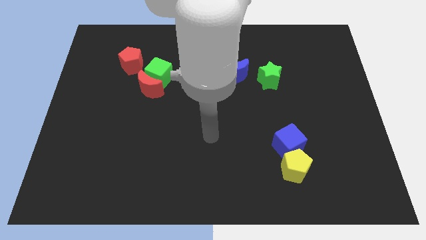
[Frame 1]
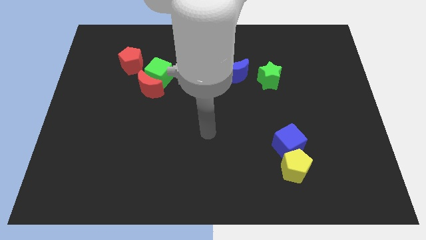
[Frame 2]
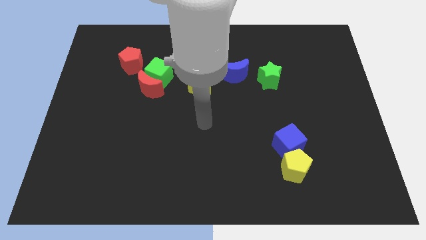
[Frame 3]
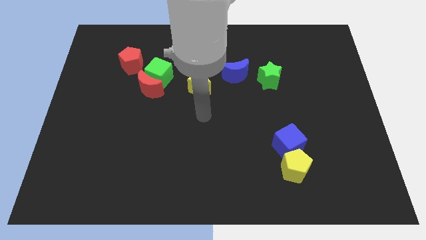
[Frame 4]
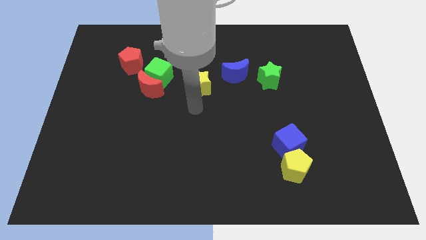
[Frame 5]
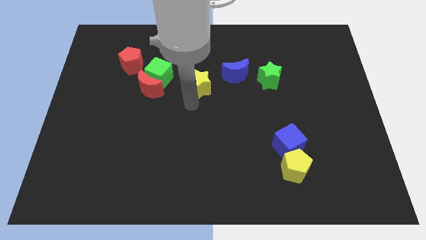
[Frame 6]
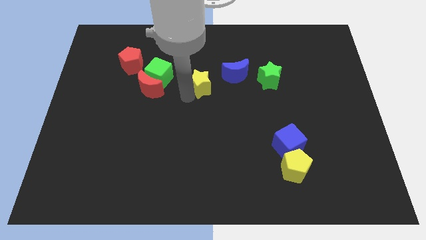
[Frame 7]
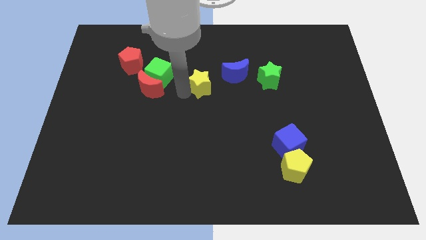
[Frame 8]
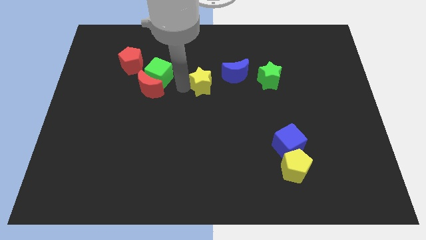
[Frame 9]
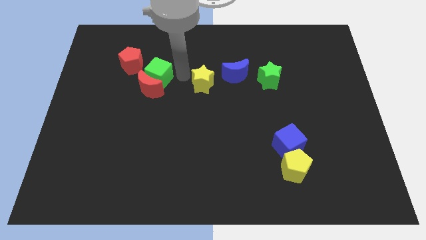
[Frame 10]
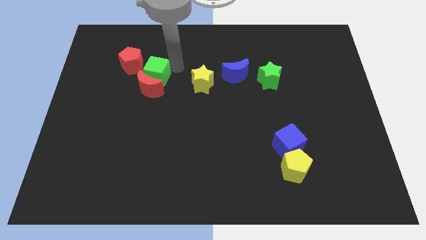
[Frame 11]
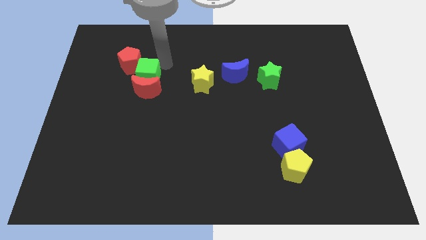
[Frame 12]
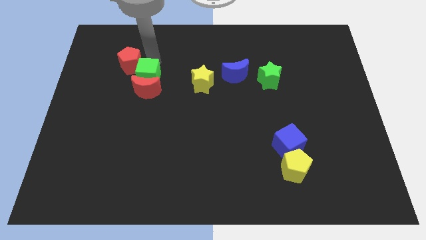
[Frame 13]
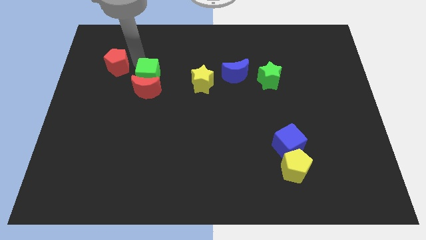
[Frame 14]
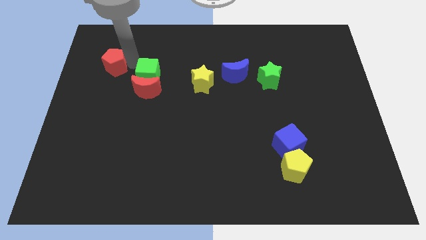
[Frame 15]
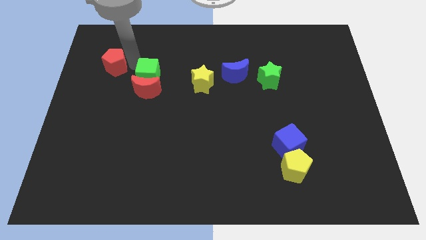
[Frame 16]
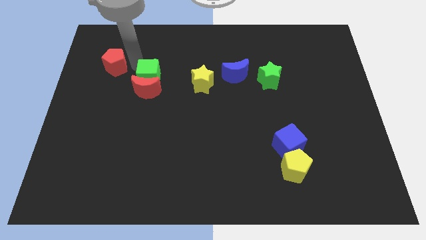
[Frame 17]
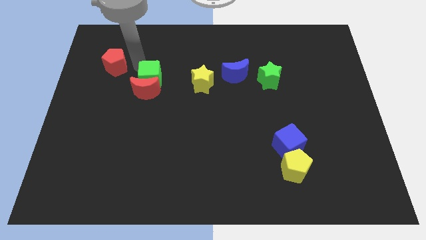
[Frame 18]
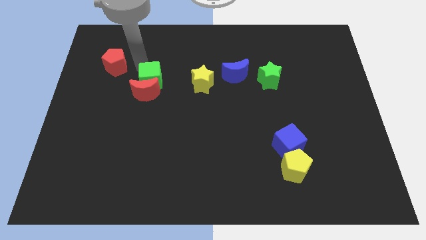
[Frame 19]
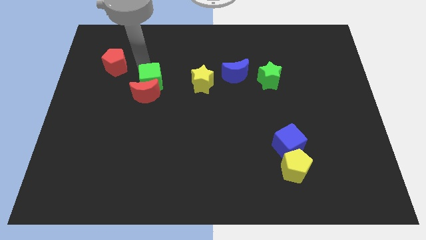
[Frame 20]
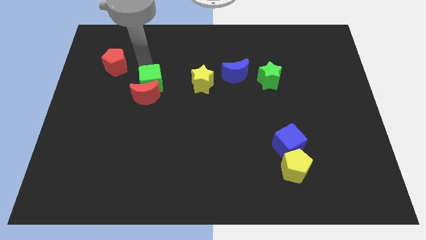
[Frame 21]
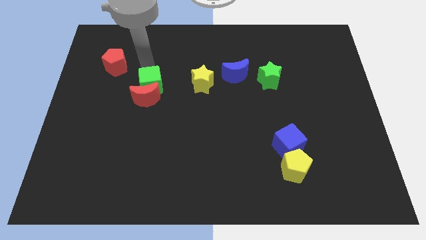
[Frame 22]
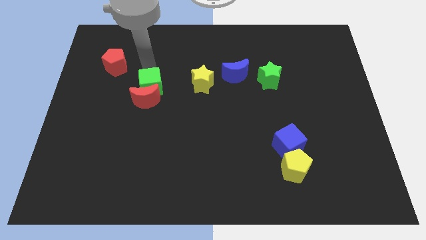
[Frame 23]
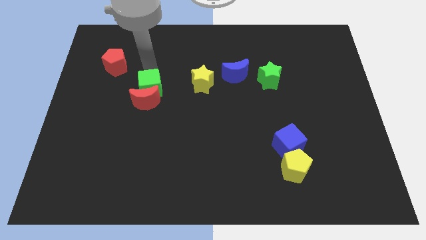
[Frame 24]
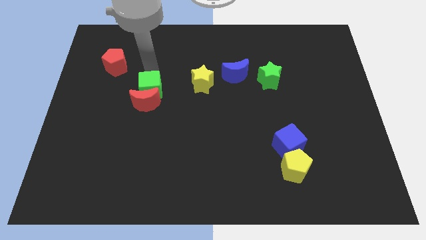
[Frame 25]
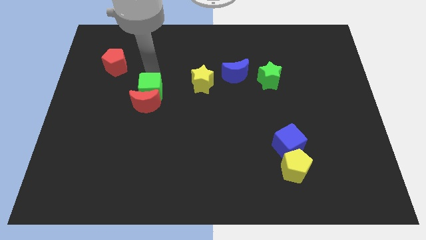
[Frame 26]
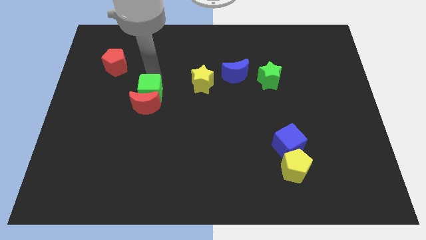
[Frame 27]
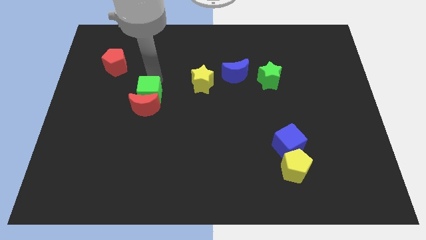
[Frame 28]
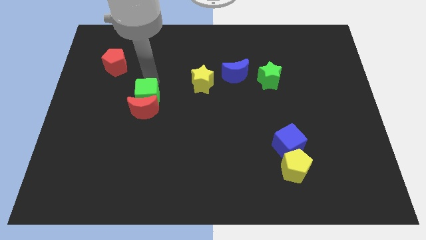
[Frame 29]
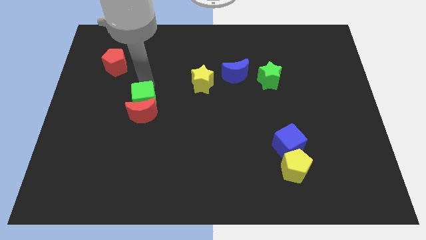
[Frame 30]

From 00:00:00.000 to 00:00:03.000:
move the green cube downwards a little bit

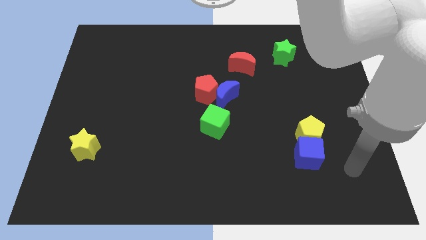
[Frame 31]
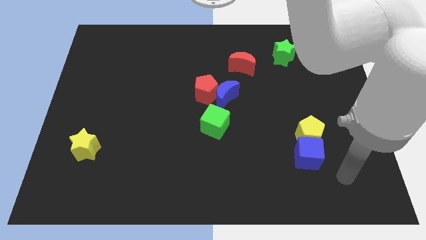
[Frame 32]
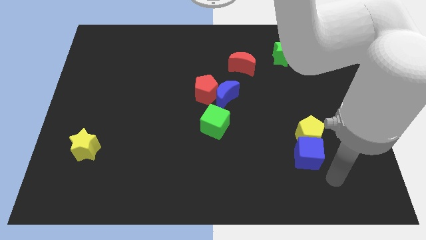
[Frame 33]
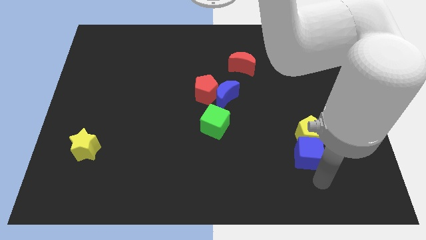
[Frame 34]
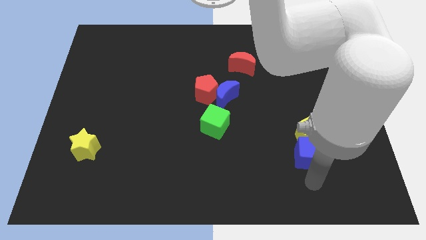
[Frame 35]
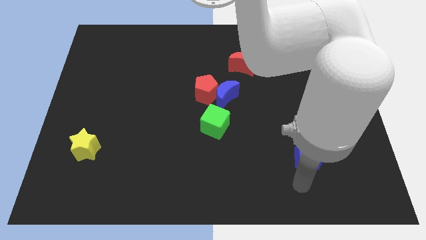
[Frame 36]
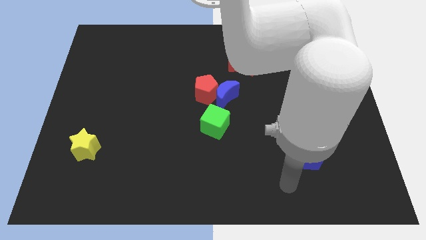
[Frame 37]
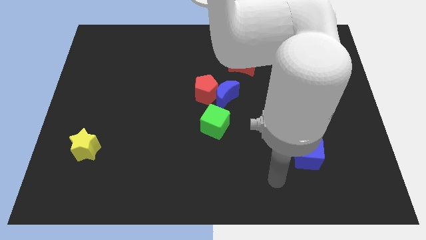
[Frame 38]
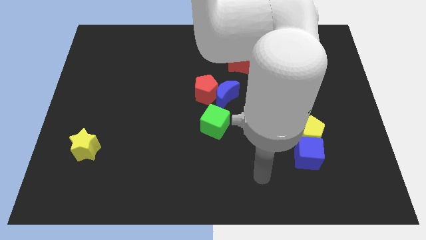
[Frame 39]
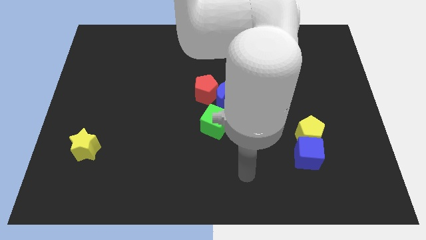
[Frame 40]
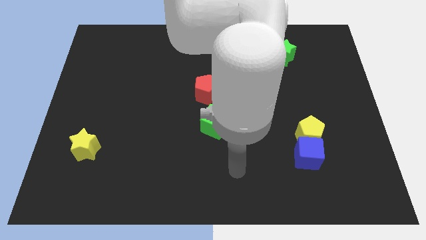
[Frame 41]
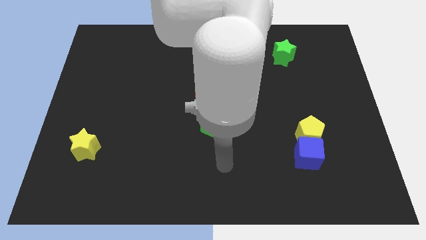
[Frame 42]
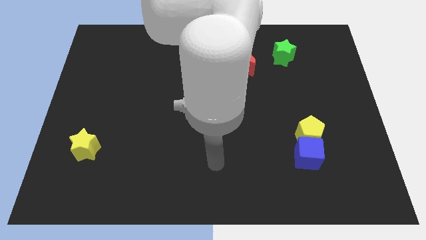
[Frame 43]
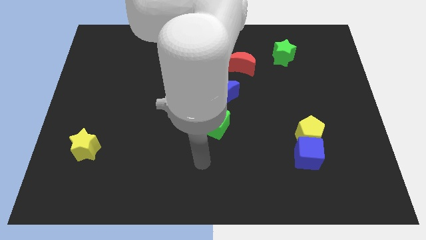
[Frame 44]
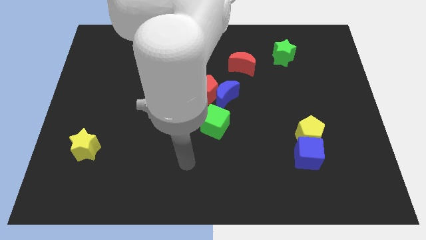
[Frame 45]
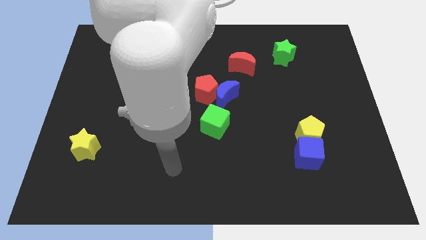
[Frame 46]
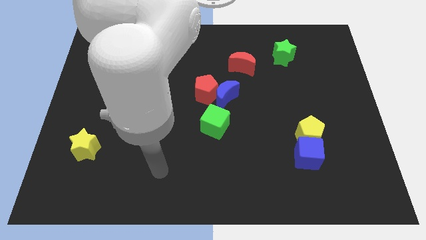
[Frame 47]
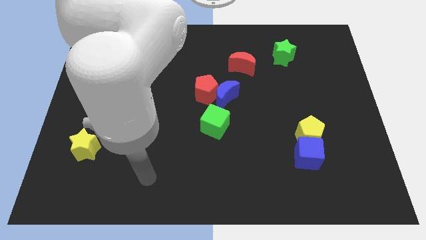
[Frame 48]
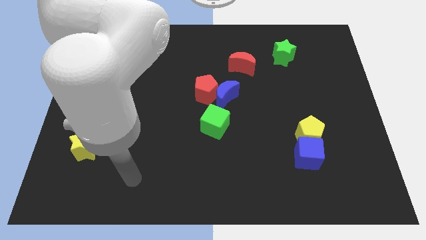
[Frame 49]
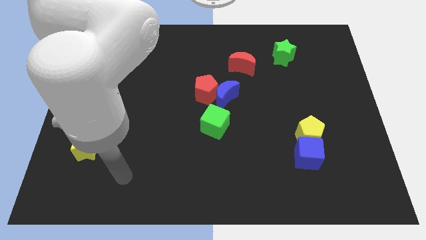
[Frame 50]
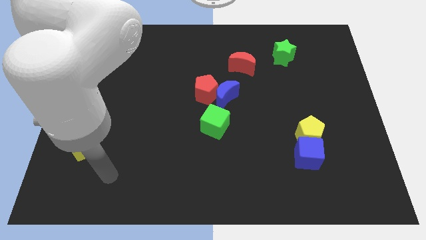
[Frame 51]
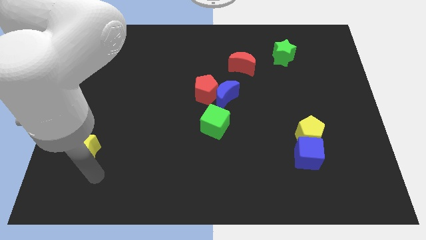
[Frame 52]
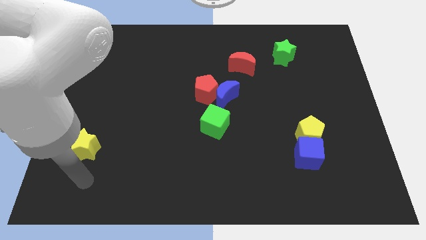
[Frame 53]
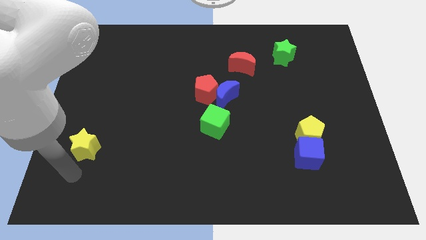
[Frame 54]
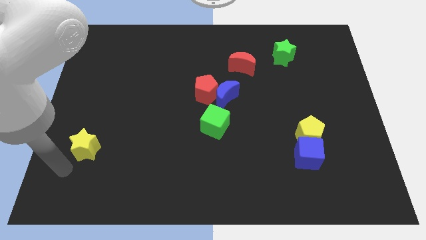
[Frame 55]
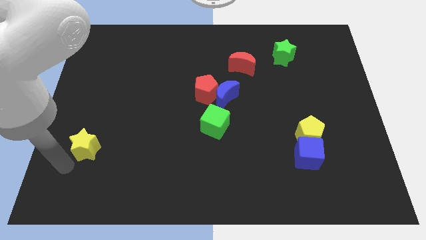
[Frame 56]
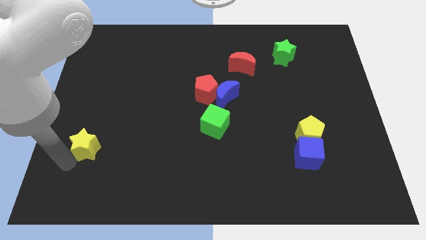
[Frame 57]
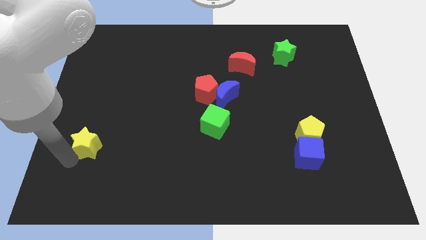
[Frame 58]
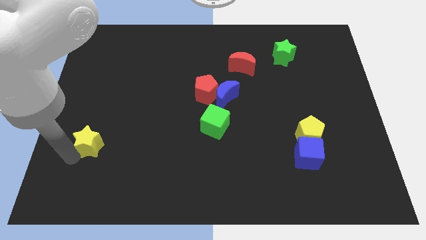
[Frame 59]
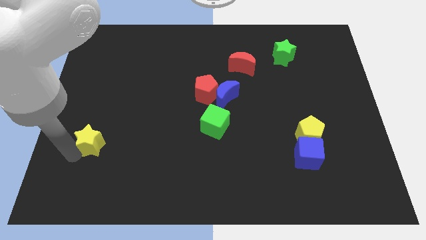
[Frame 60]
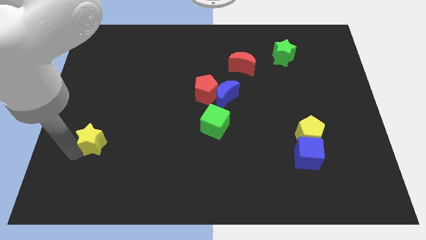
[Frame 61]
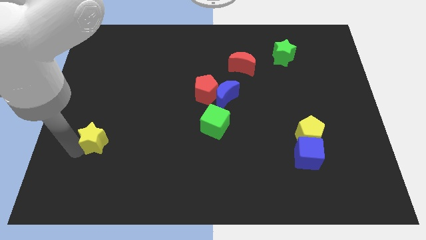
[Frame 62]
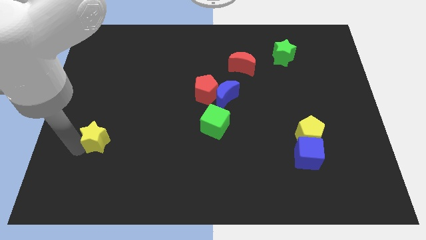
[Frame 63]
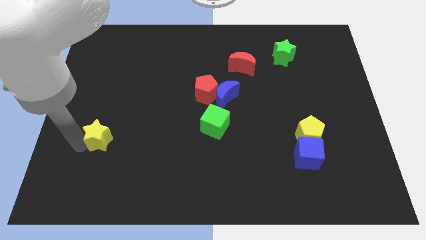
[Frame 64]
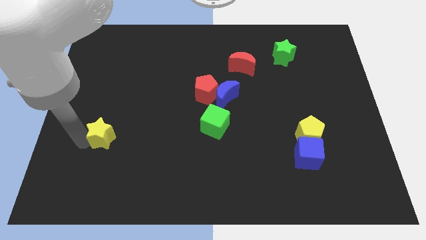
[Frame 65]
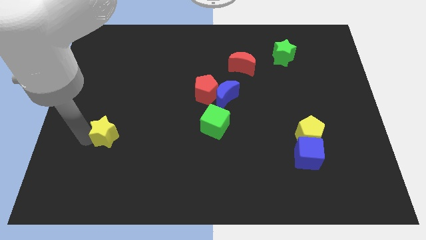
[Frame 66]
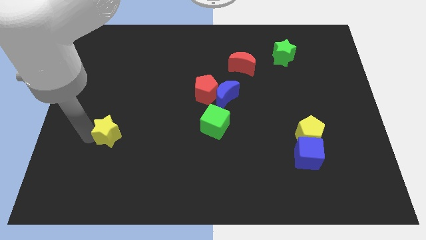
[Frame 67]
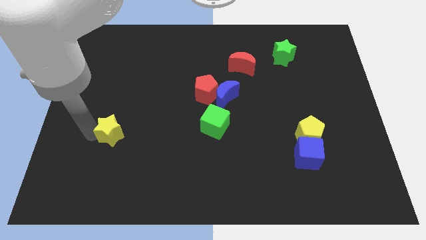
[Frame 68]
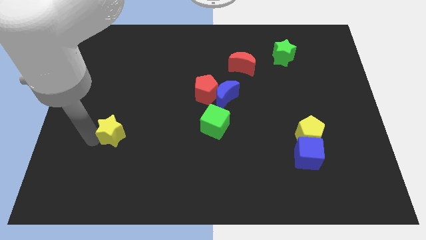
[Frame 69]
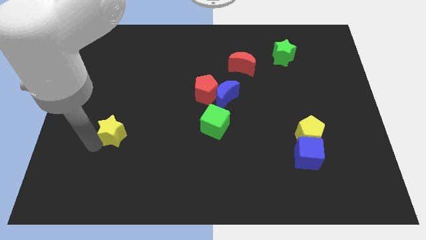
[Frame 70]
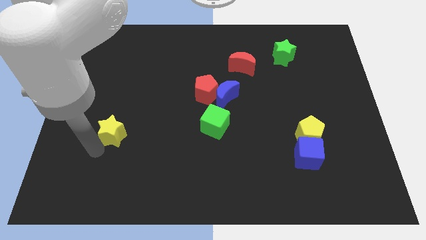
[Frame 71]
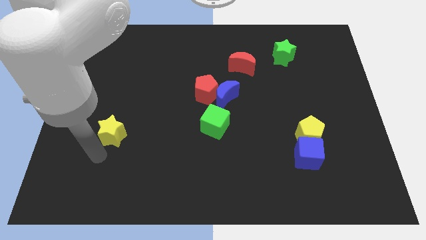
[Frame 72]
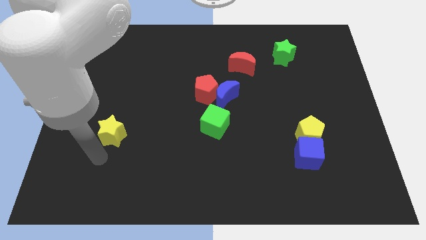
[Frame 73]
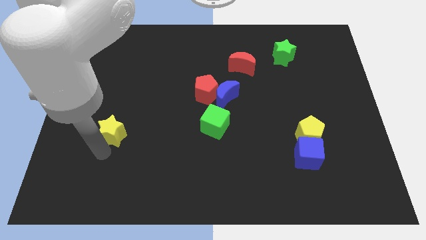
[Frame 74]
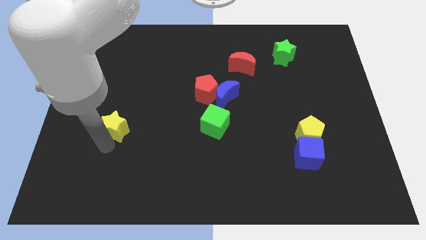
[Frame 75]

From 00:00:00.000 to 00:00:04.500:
push the yellow star upwards and to the right diagonally somewhat

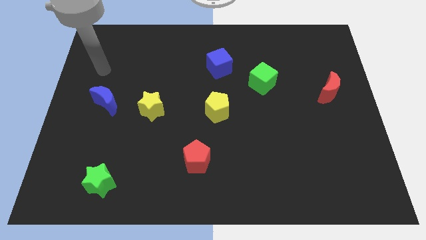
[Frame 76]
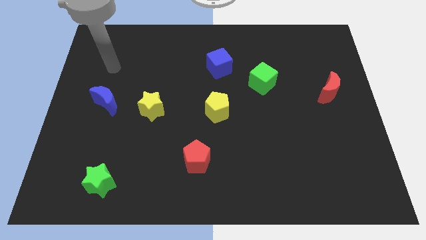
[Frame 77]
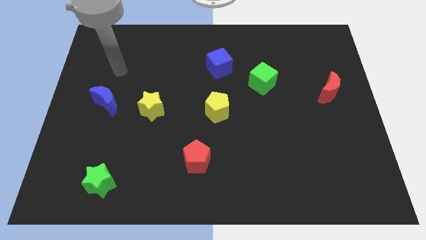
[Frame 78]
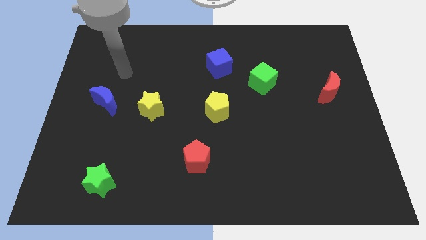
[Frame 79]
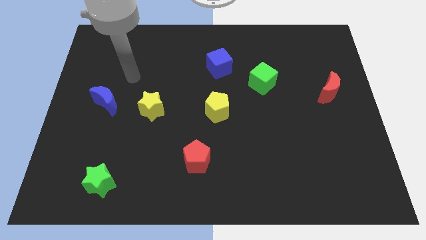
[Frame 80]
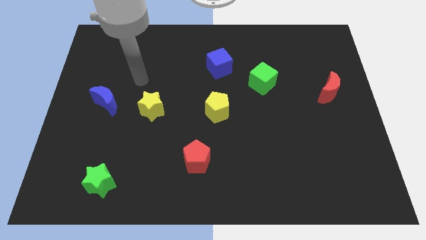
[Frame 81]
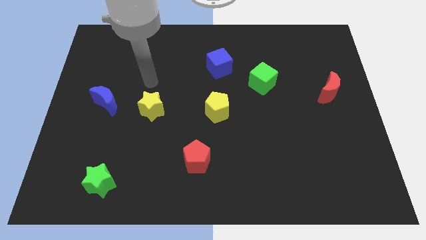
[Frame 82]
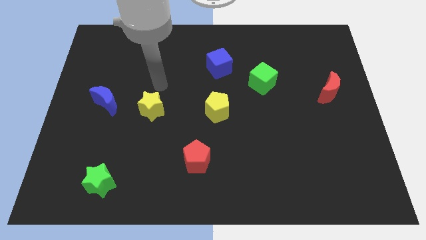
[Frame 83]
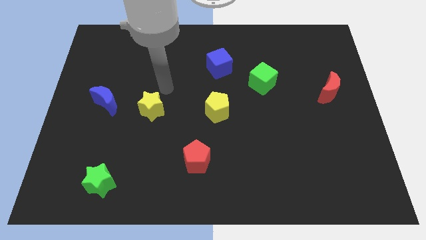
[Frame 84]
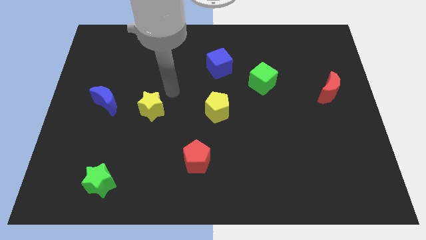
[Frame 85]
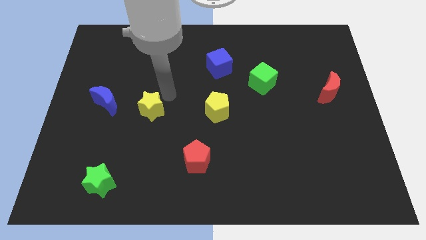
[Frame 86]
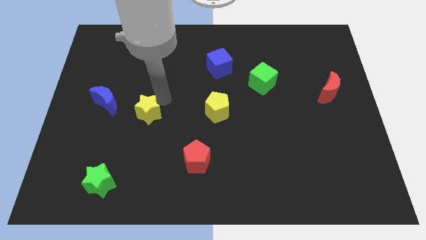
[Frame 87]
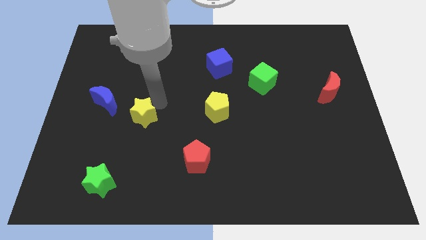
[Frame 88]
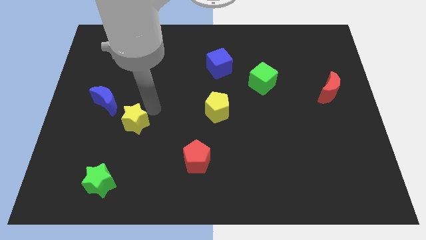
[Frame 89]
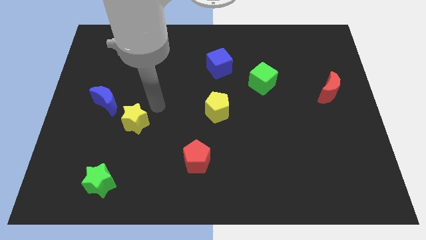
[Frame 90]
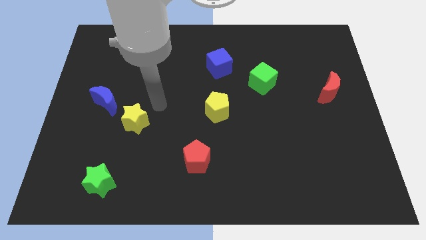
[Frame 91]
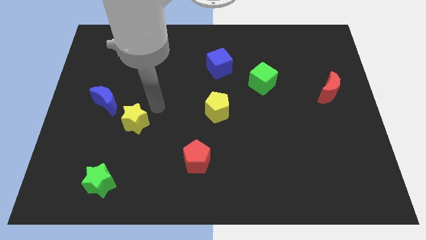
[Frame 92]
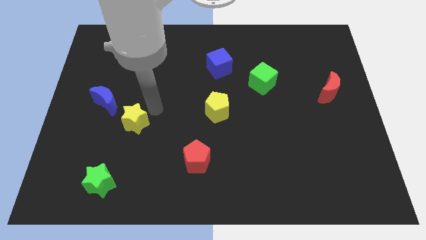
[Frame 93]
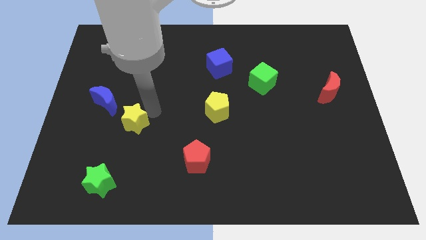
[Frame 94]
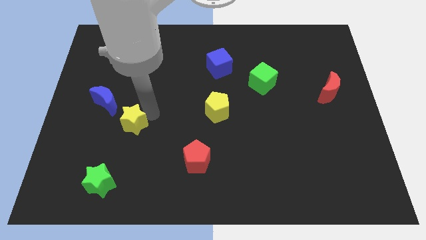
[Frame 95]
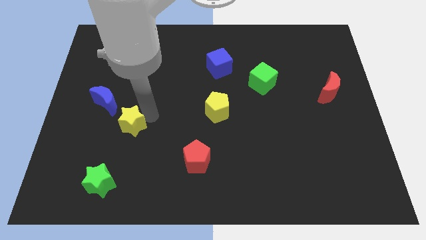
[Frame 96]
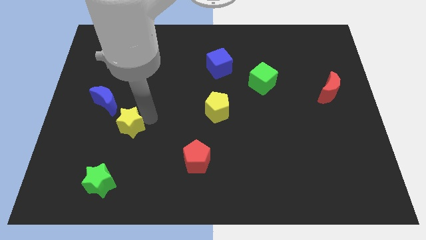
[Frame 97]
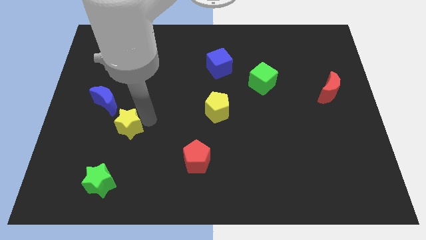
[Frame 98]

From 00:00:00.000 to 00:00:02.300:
slightly push the yellow star downwards and then to the left
